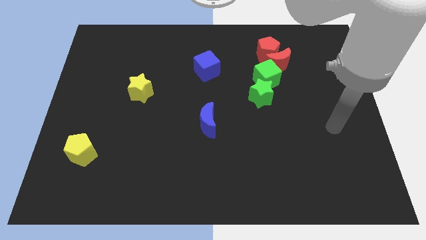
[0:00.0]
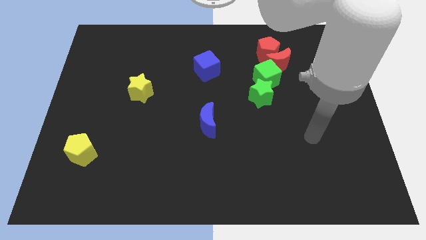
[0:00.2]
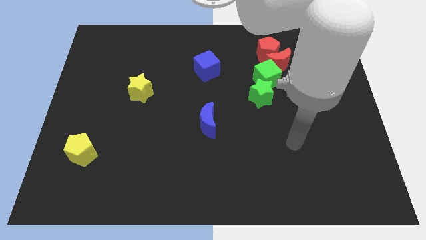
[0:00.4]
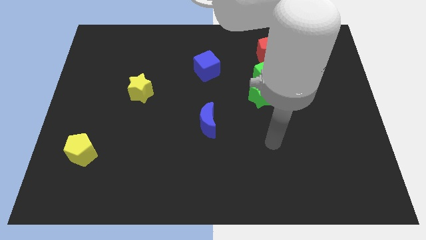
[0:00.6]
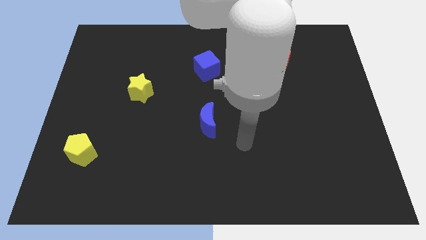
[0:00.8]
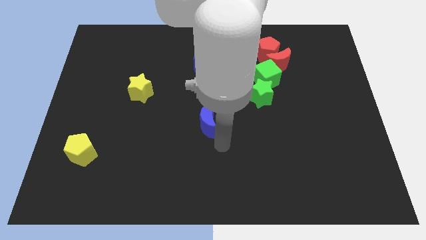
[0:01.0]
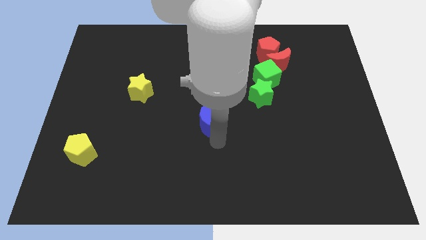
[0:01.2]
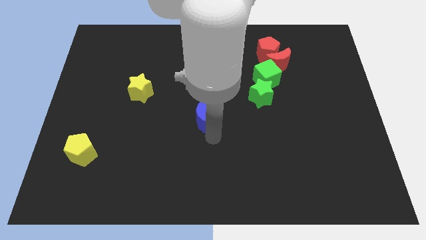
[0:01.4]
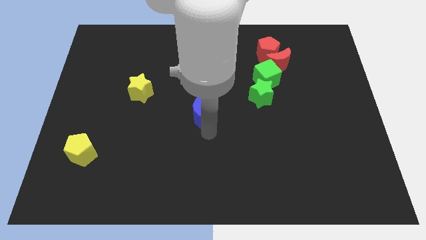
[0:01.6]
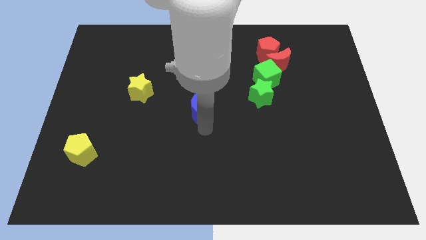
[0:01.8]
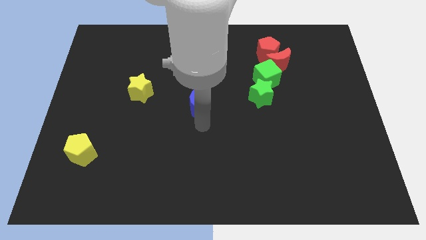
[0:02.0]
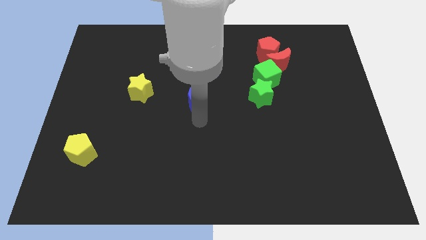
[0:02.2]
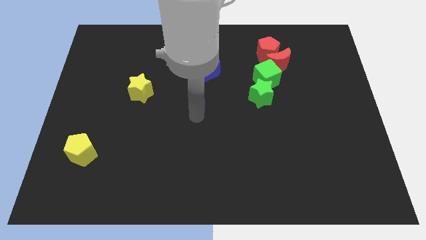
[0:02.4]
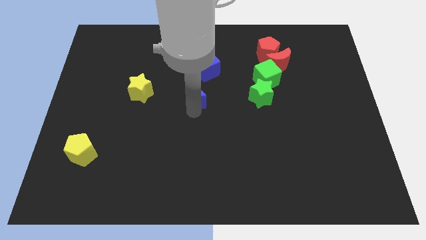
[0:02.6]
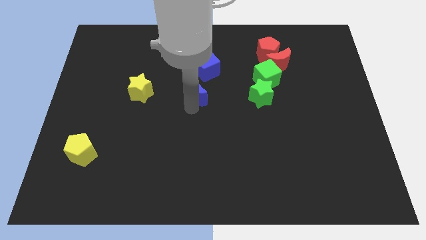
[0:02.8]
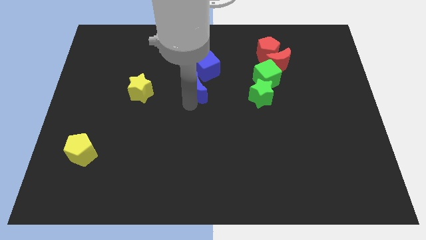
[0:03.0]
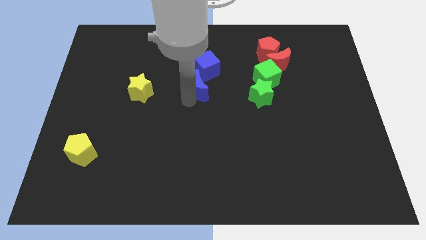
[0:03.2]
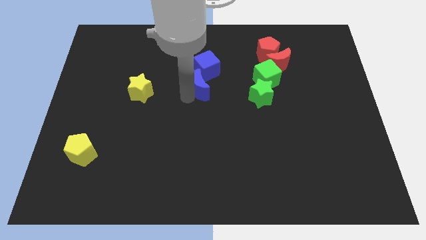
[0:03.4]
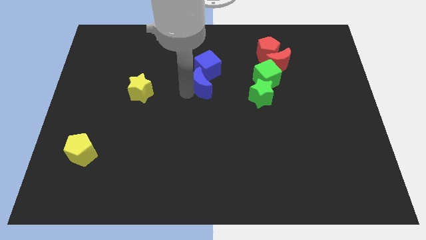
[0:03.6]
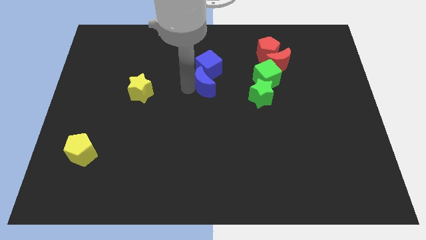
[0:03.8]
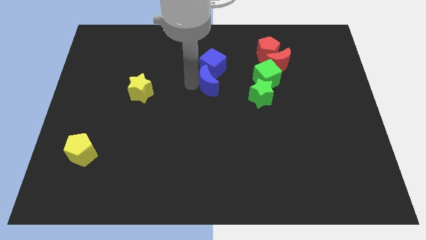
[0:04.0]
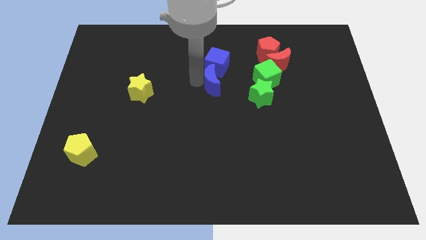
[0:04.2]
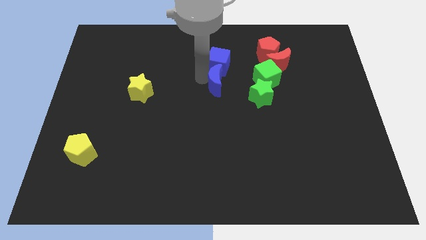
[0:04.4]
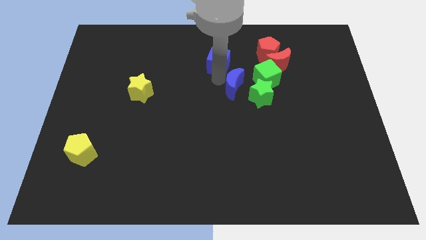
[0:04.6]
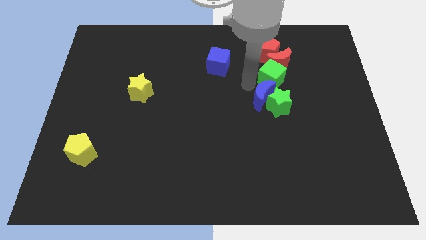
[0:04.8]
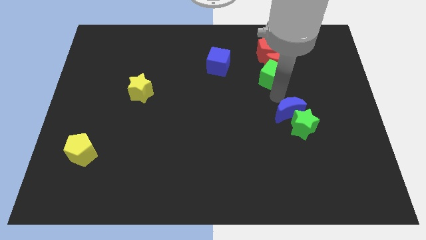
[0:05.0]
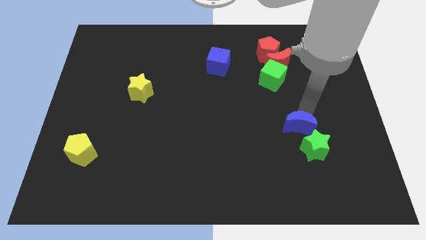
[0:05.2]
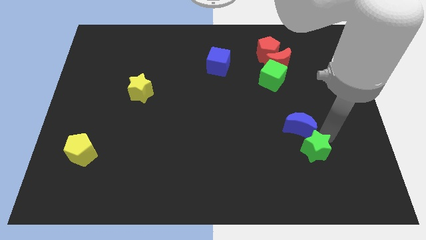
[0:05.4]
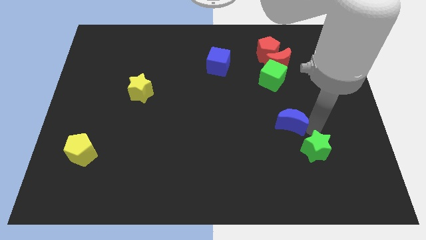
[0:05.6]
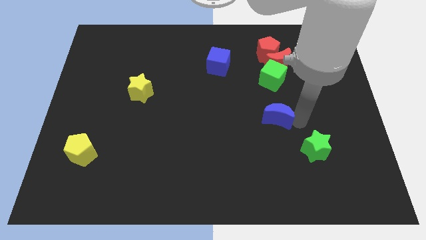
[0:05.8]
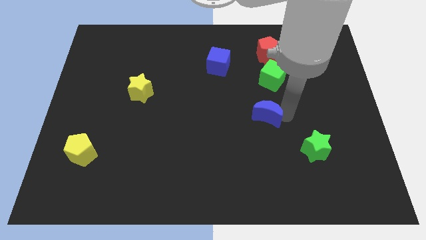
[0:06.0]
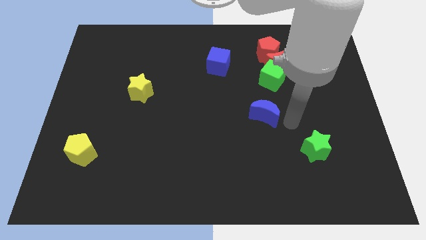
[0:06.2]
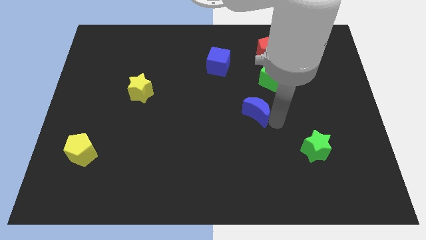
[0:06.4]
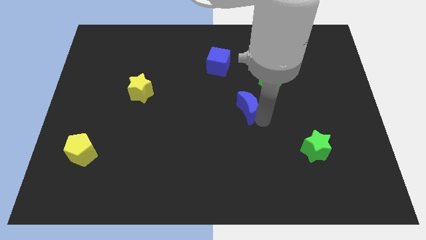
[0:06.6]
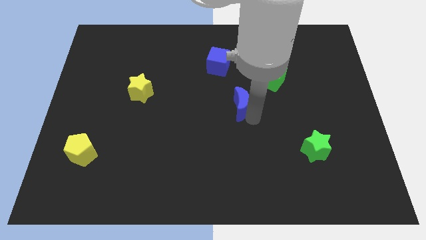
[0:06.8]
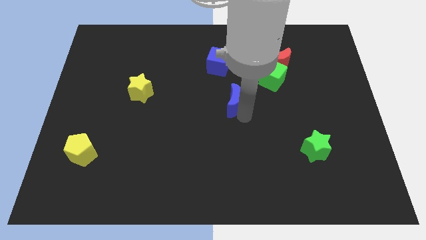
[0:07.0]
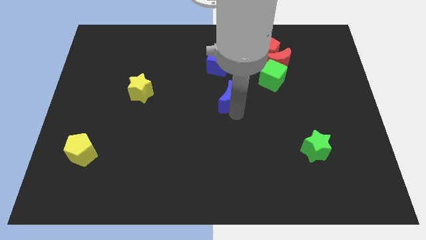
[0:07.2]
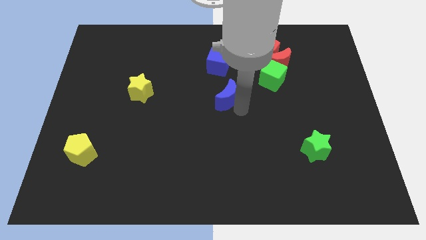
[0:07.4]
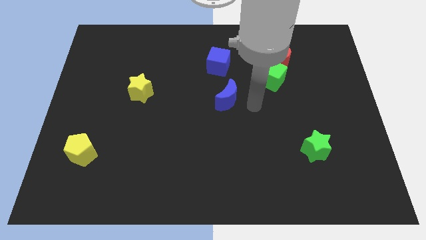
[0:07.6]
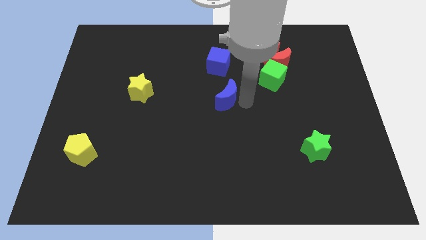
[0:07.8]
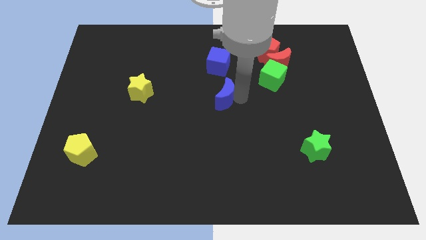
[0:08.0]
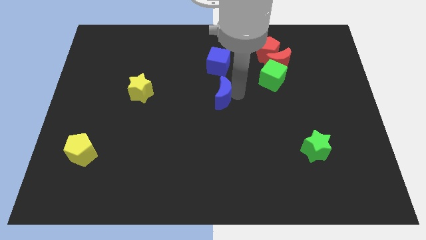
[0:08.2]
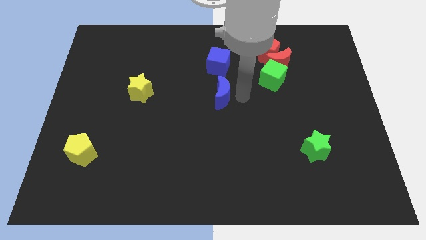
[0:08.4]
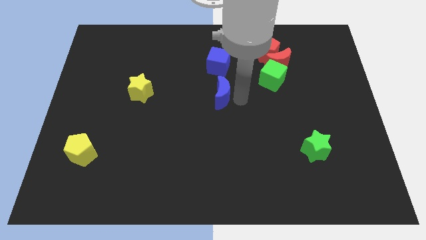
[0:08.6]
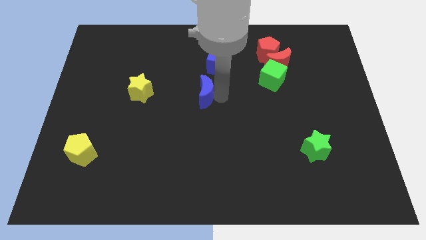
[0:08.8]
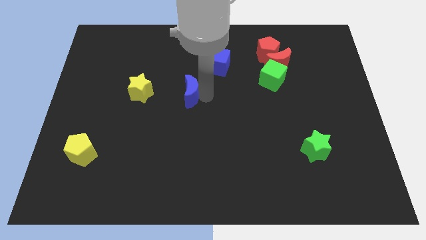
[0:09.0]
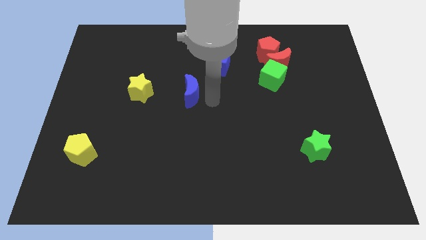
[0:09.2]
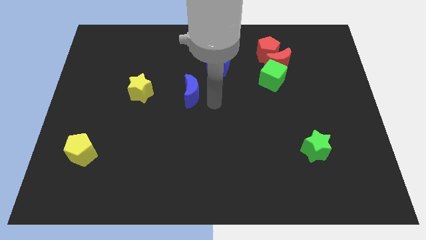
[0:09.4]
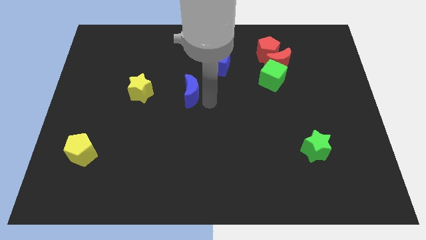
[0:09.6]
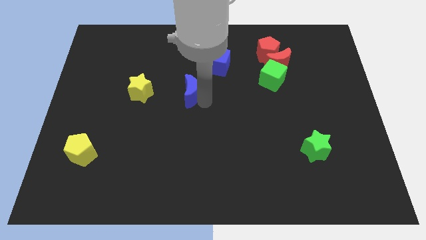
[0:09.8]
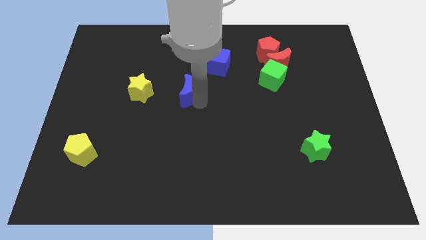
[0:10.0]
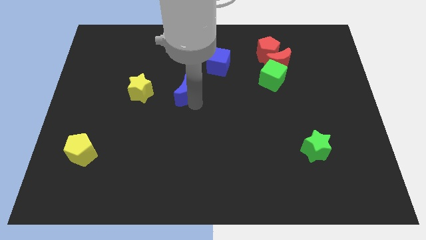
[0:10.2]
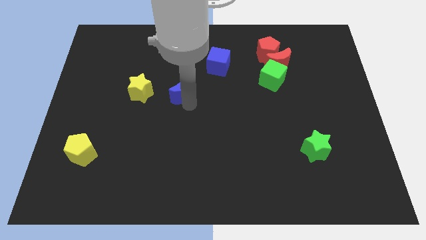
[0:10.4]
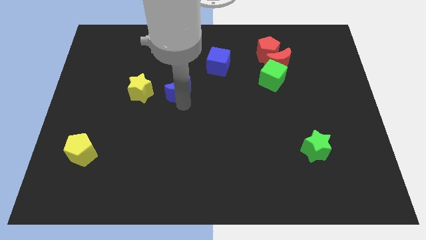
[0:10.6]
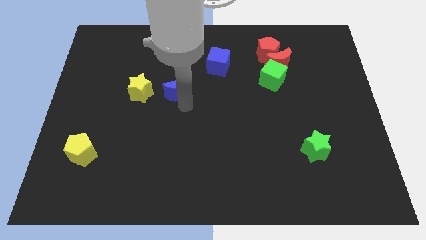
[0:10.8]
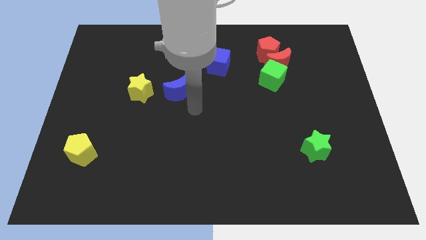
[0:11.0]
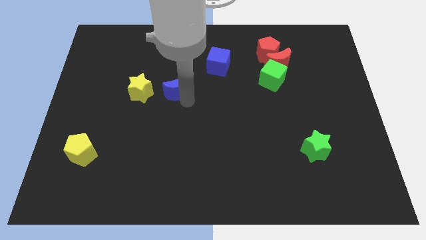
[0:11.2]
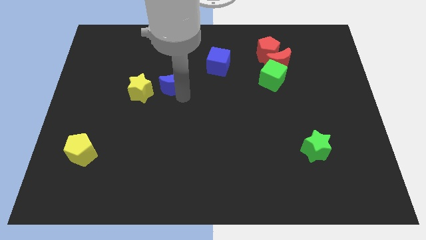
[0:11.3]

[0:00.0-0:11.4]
push the blue moon to the top right side of the yellow star

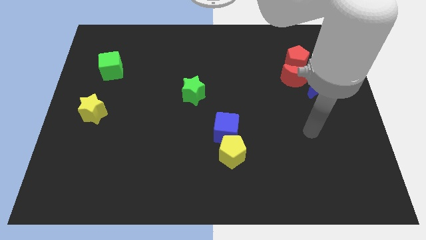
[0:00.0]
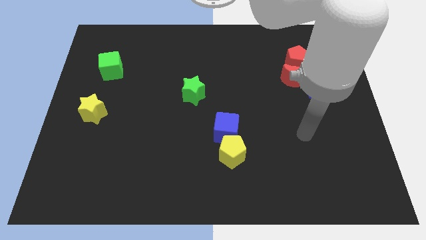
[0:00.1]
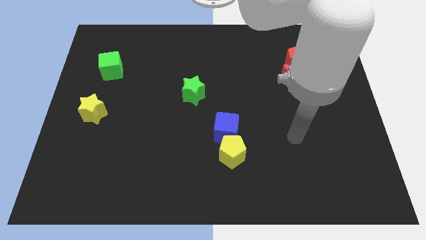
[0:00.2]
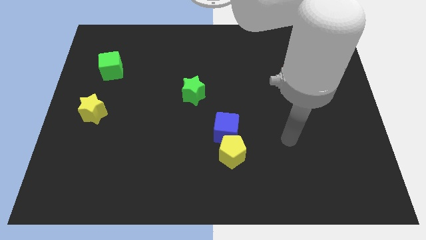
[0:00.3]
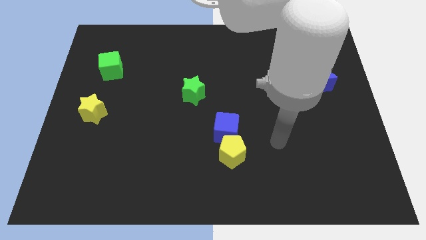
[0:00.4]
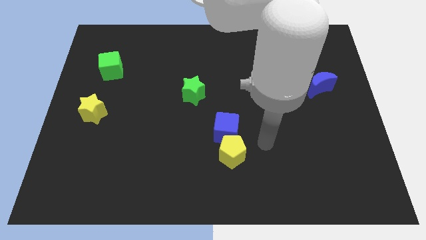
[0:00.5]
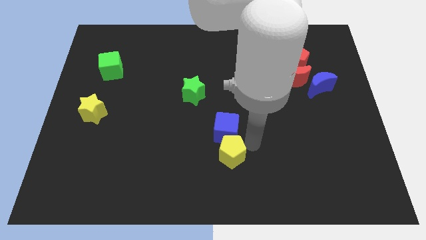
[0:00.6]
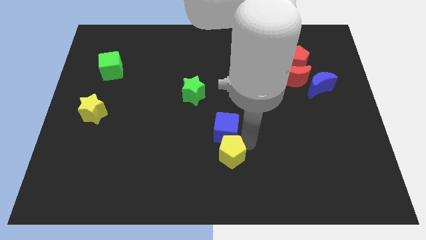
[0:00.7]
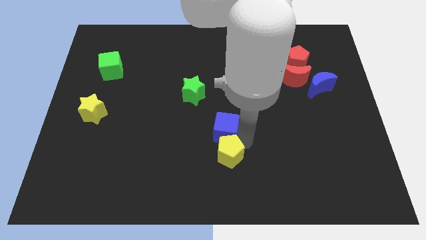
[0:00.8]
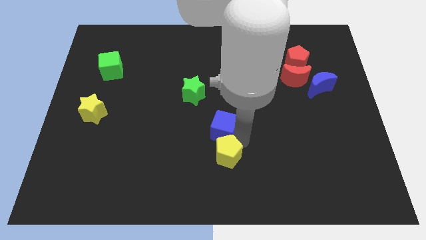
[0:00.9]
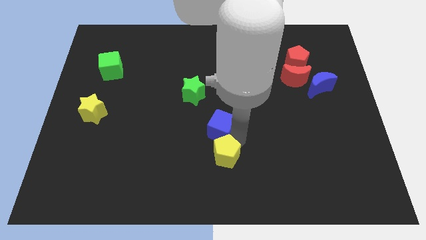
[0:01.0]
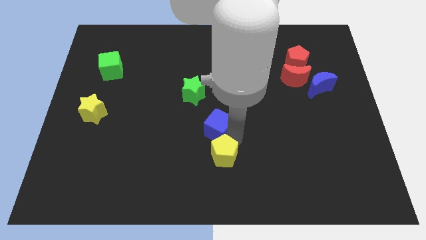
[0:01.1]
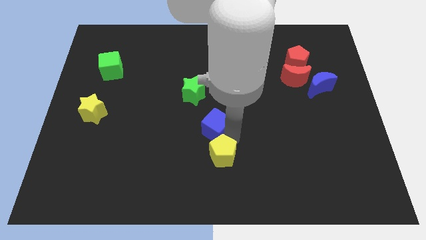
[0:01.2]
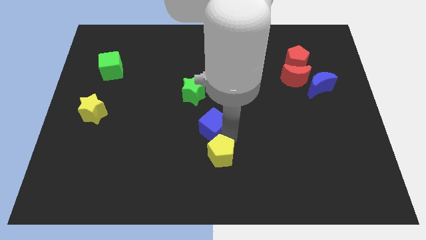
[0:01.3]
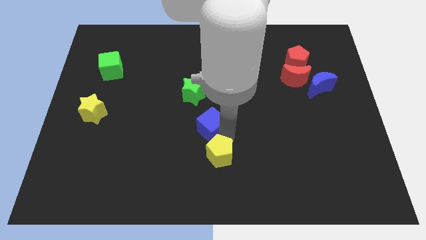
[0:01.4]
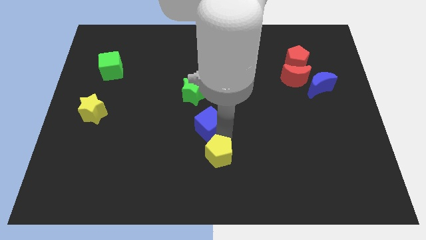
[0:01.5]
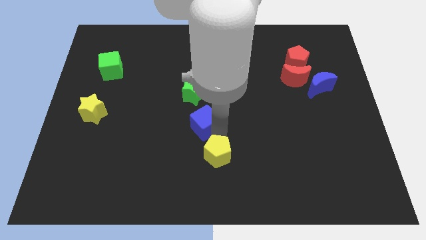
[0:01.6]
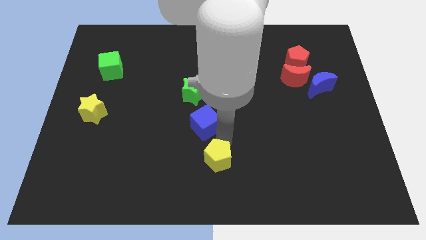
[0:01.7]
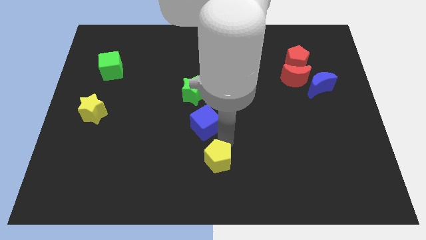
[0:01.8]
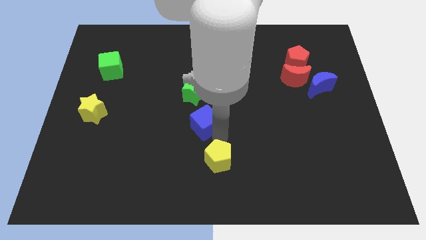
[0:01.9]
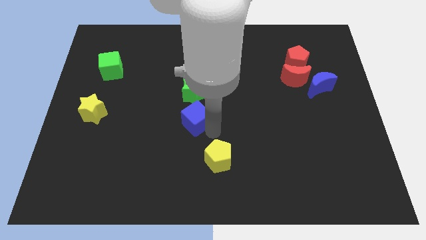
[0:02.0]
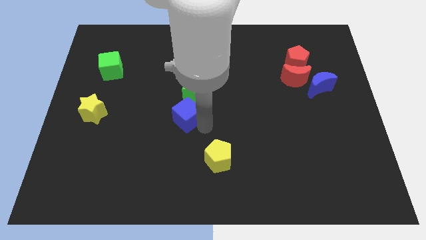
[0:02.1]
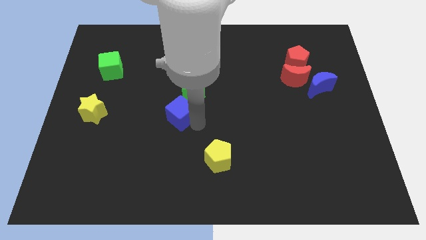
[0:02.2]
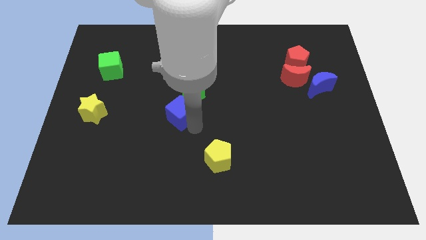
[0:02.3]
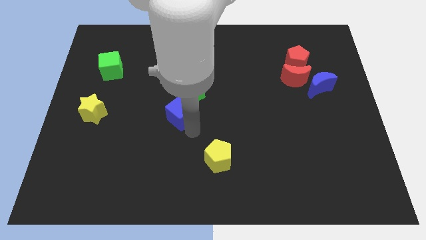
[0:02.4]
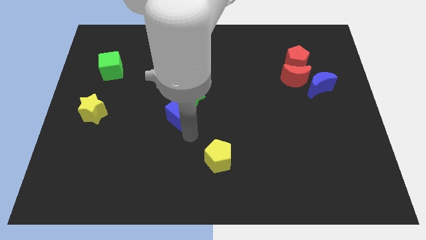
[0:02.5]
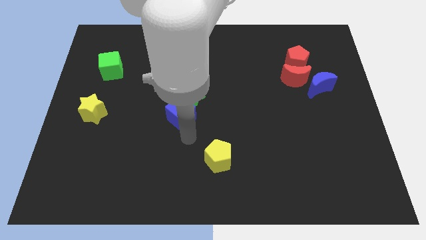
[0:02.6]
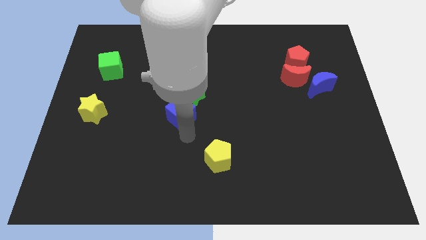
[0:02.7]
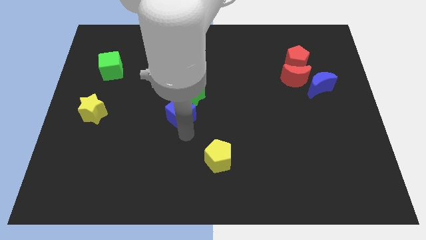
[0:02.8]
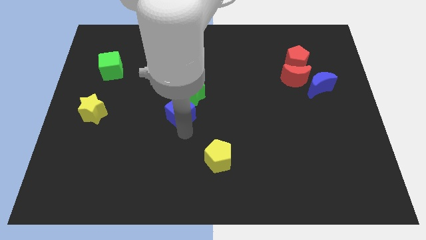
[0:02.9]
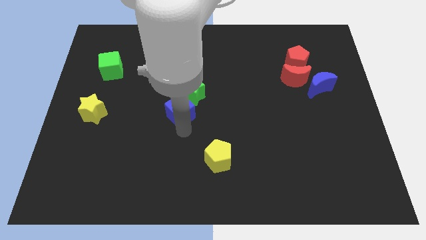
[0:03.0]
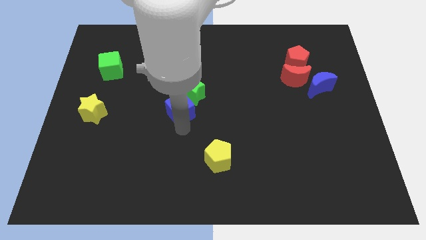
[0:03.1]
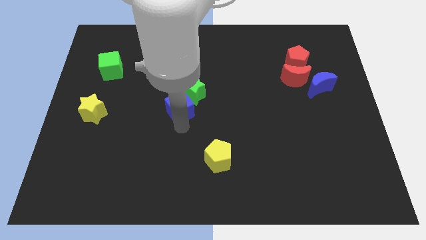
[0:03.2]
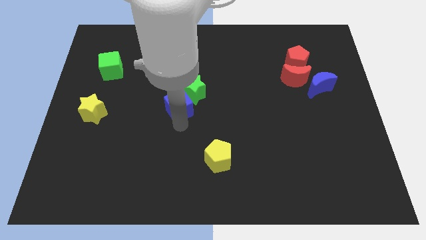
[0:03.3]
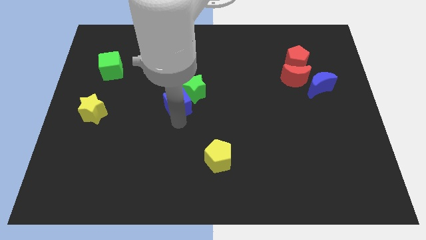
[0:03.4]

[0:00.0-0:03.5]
push the blue cube just left of the green star
